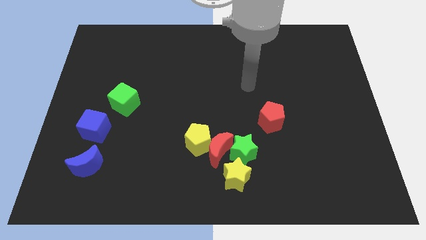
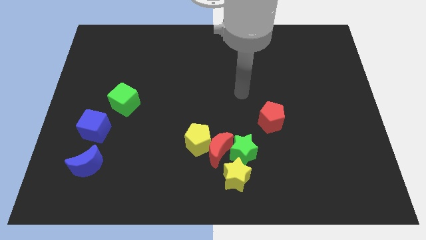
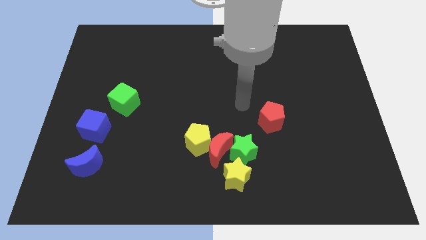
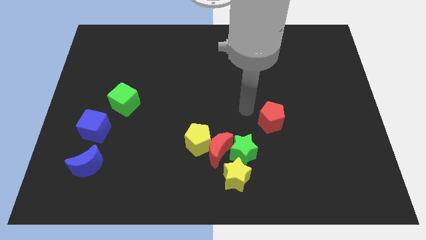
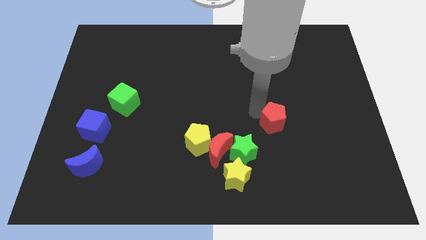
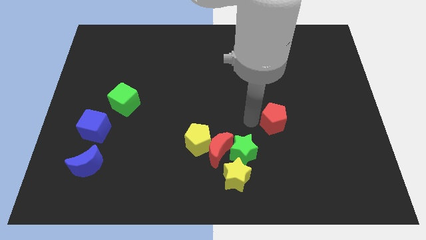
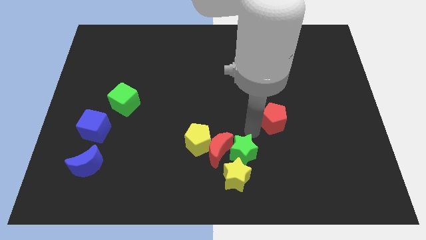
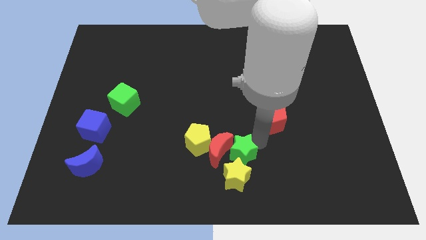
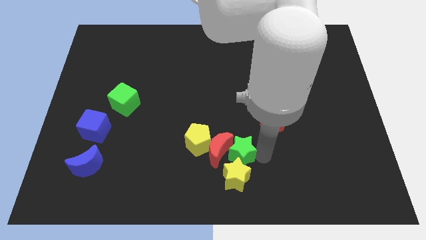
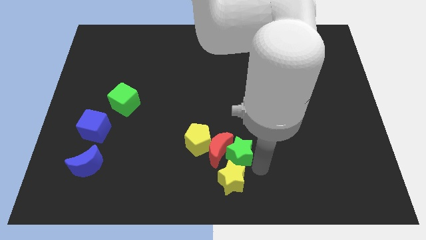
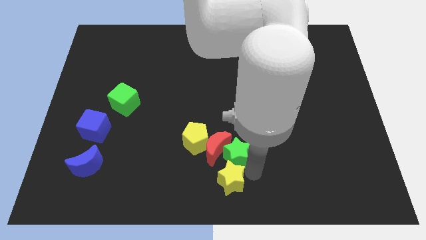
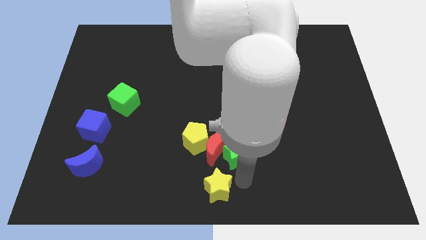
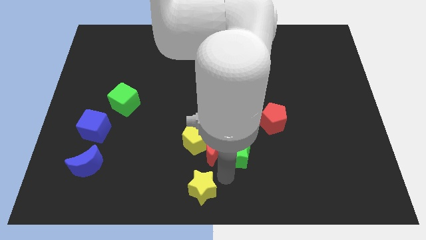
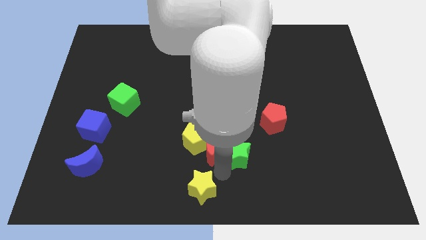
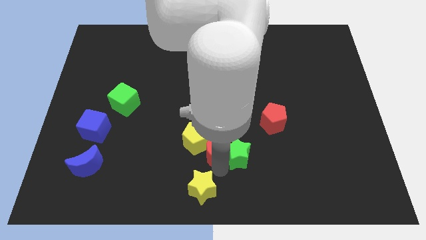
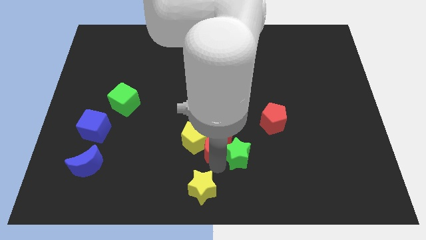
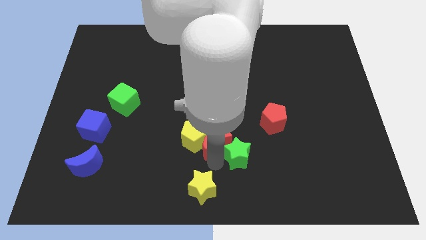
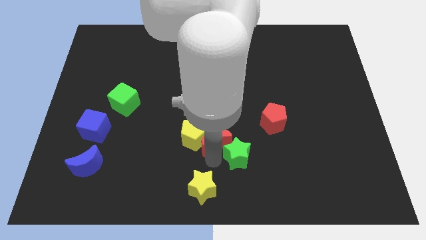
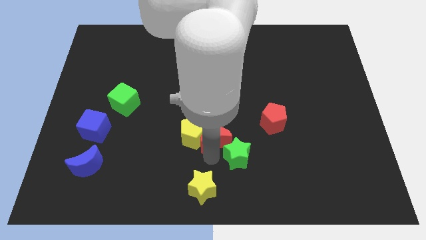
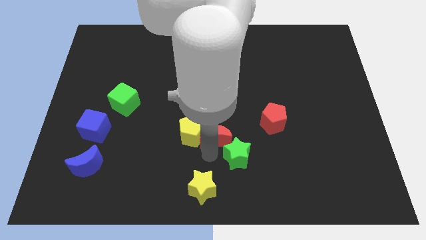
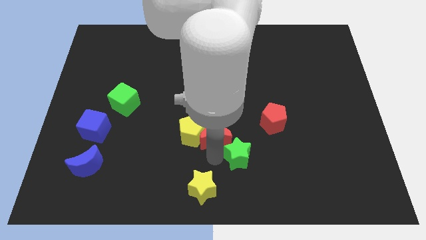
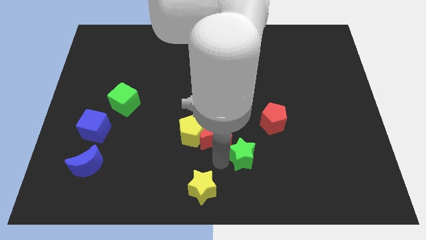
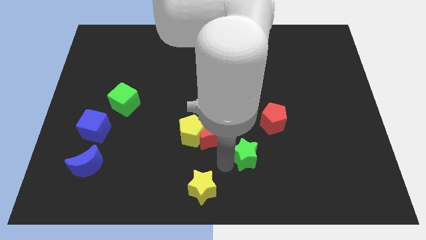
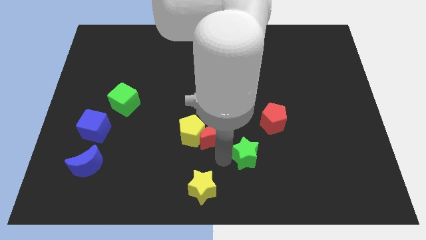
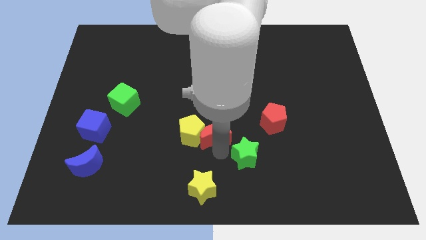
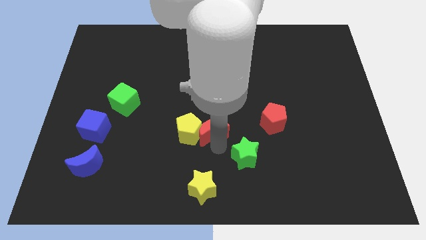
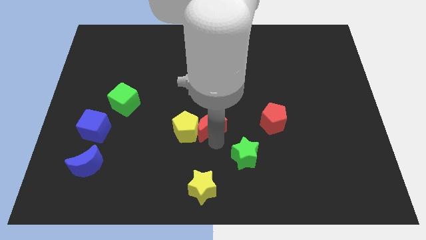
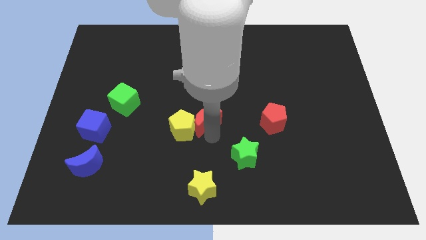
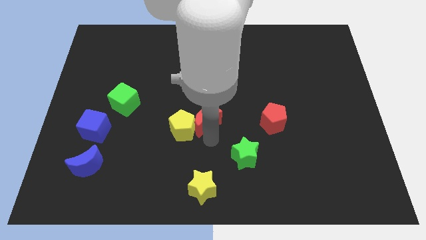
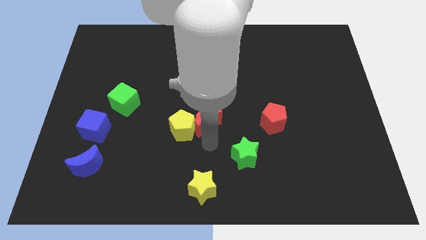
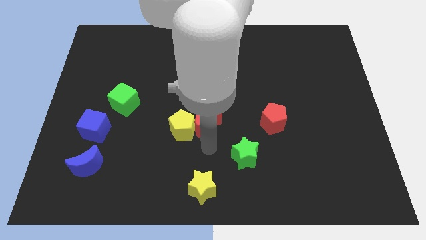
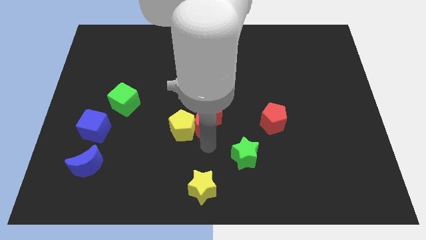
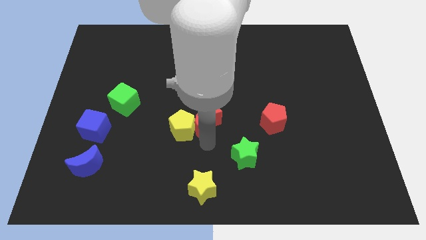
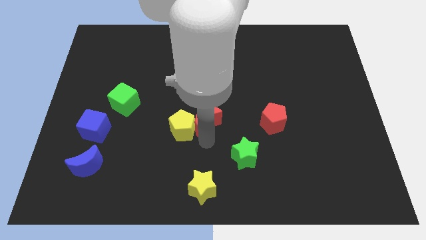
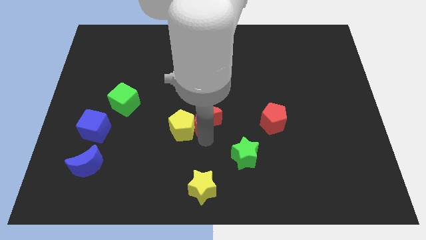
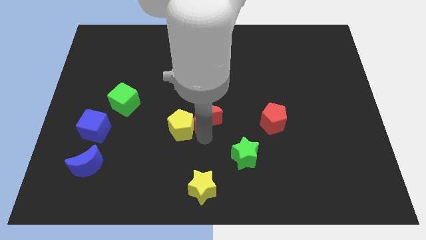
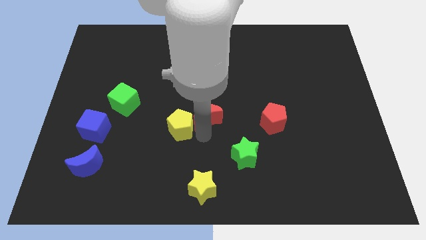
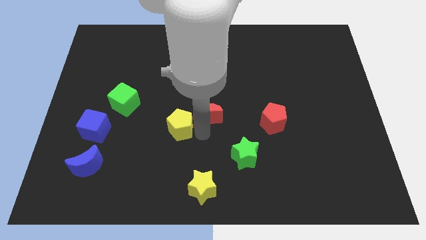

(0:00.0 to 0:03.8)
separate the red moon from the yellow pentagon, green star, and yellow star

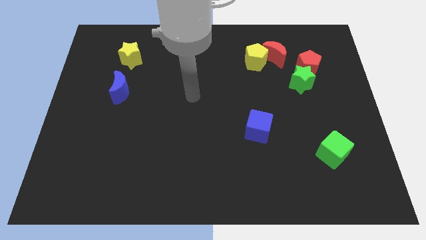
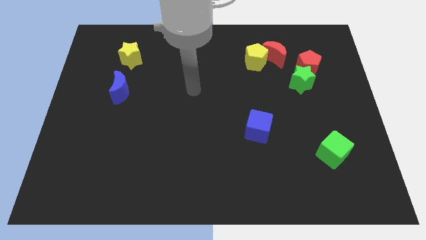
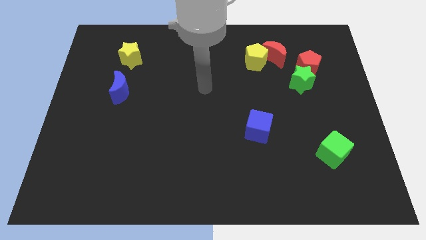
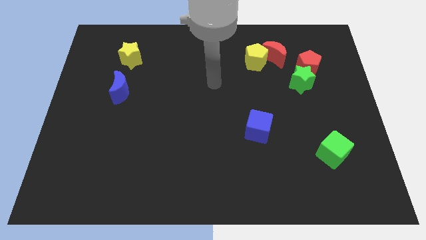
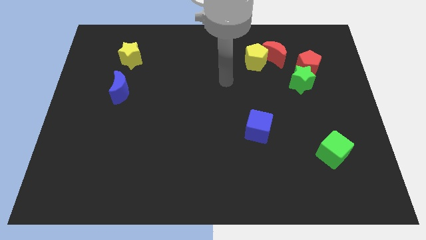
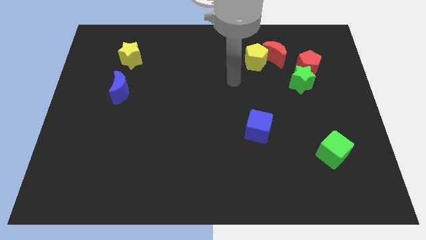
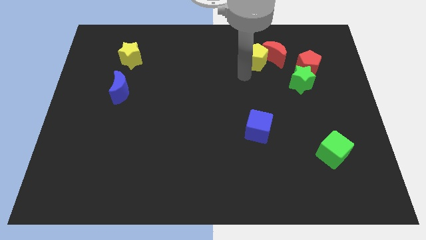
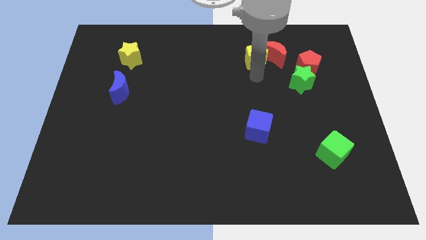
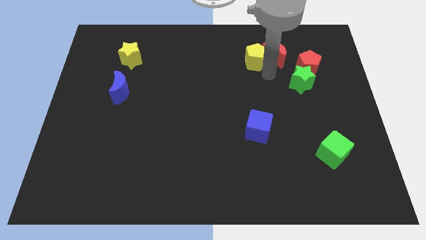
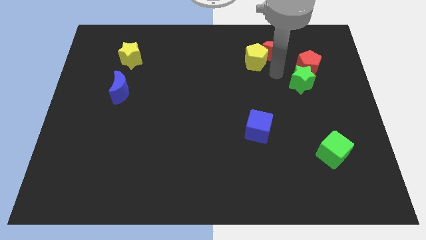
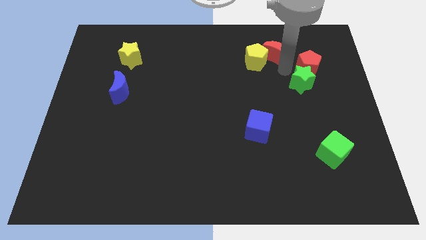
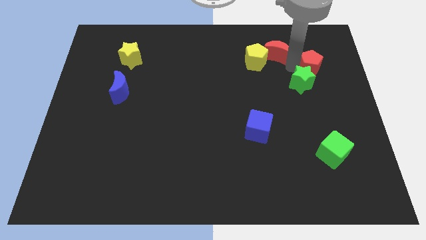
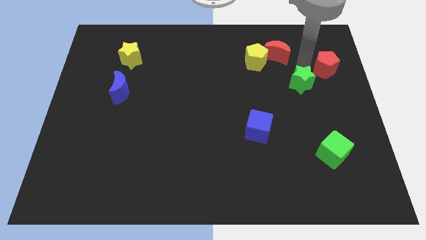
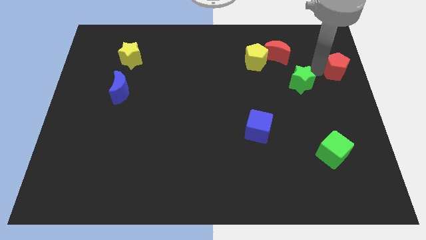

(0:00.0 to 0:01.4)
pull the green star apart from the red pentagon

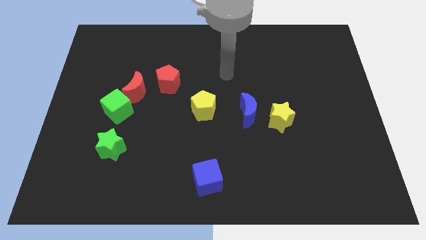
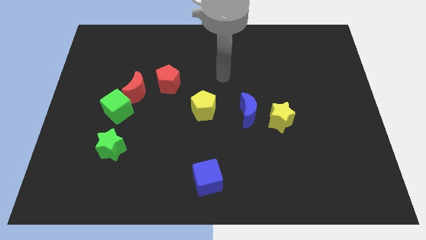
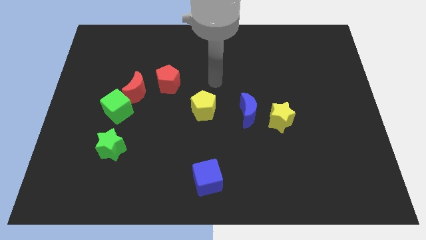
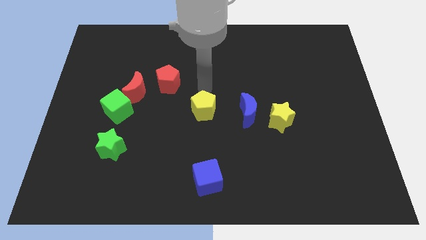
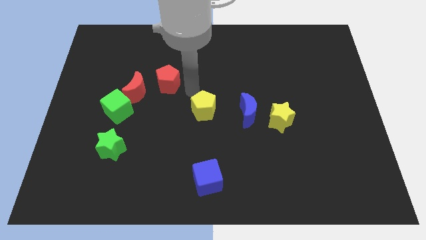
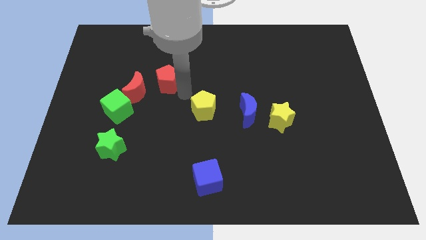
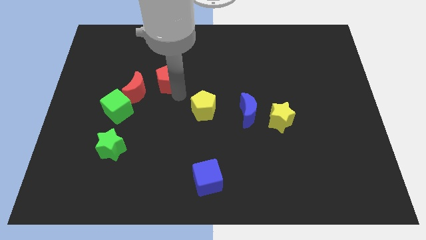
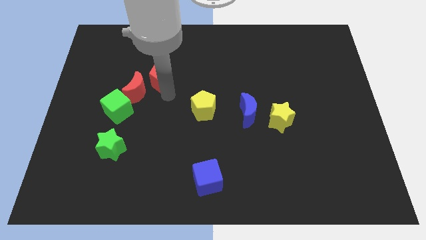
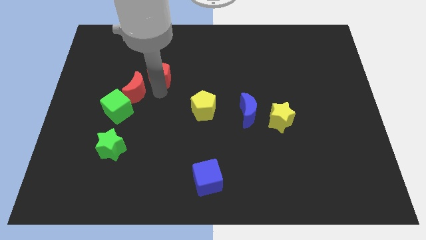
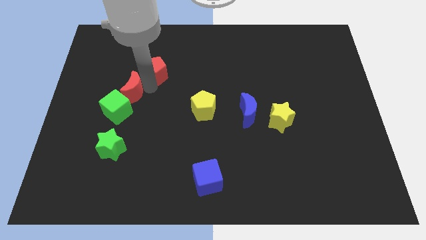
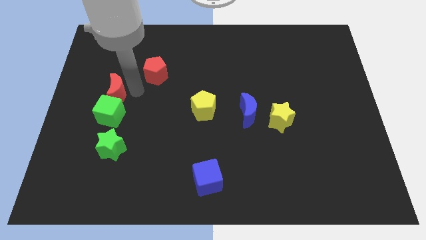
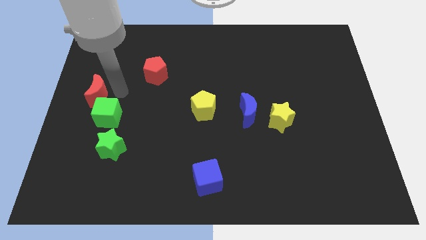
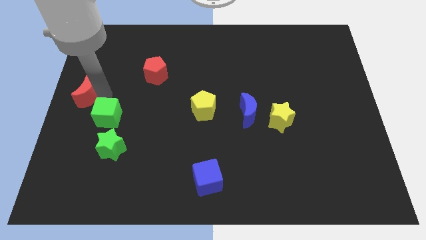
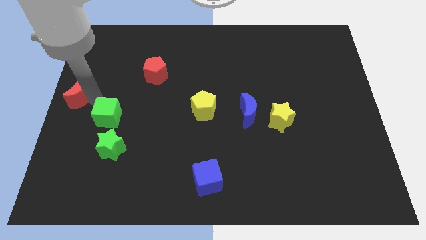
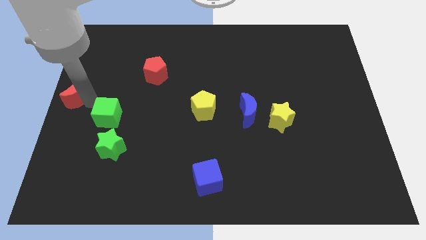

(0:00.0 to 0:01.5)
pull the green cube apart from the red moon

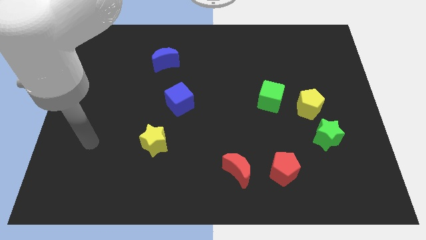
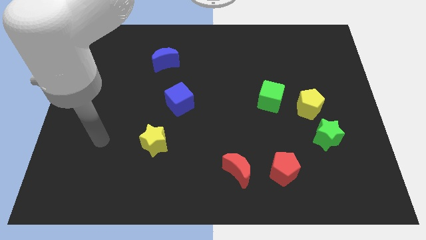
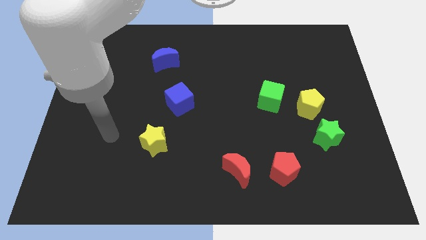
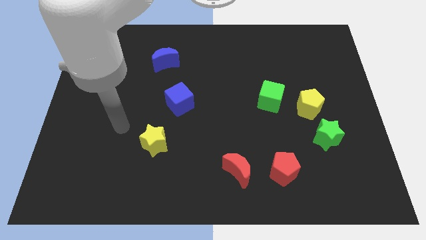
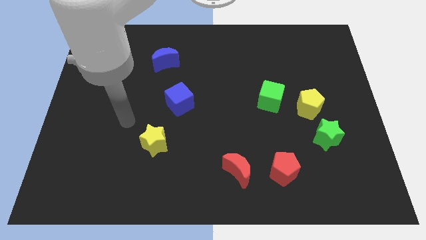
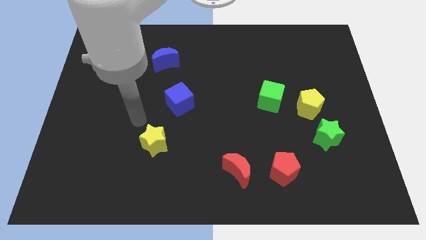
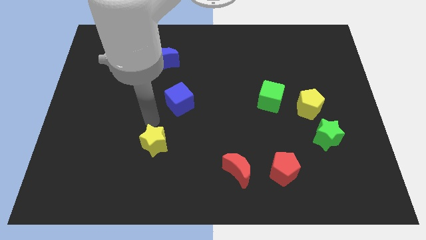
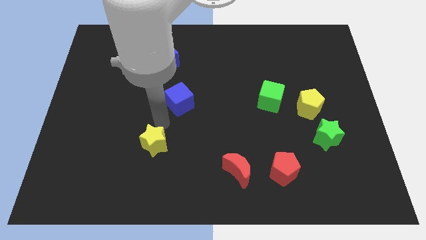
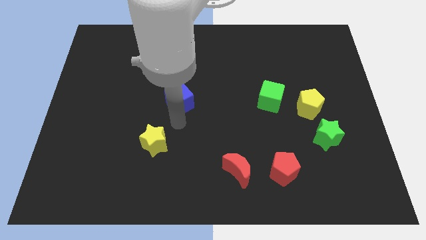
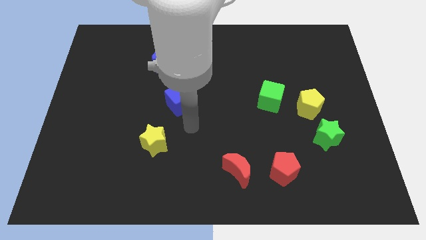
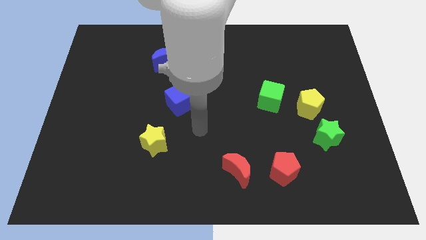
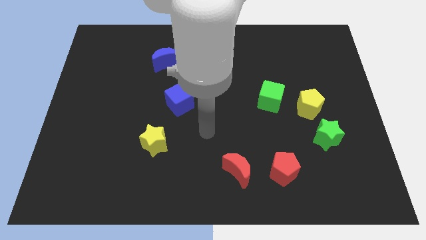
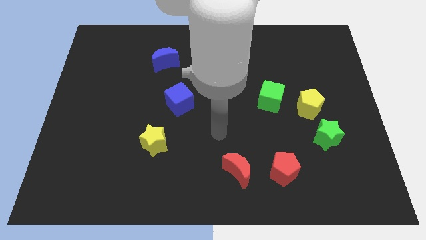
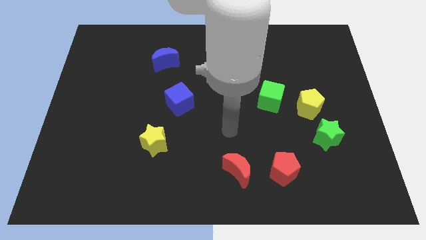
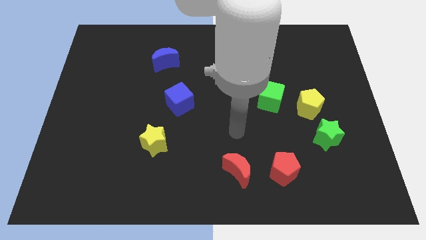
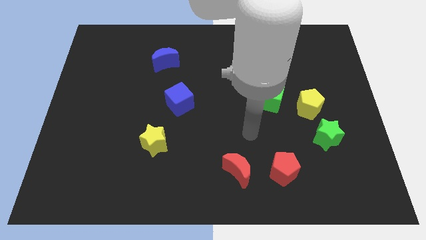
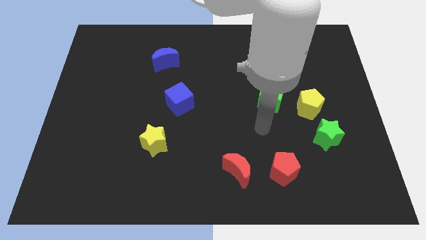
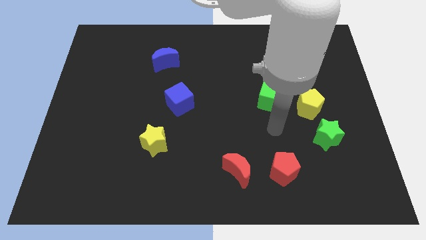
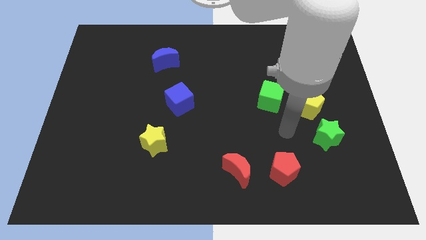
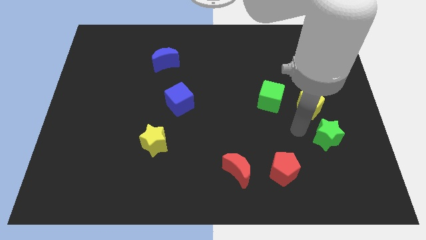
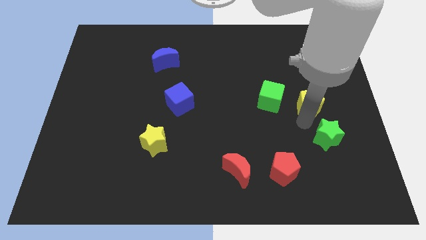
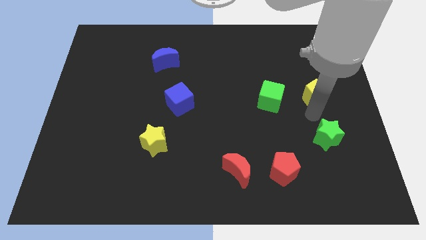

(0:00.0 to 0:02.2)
separate the green star from the yellow pentagon

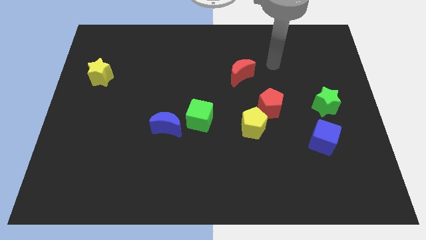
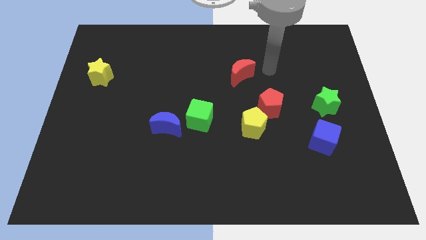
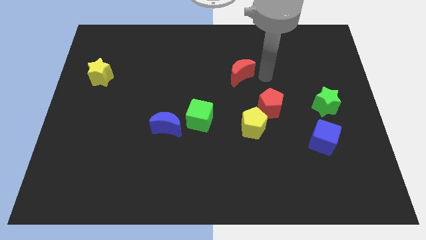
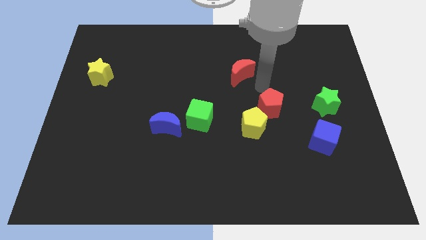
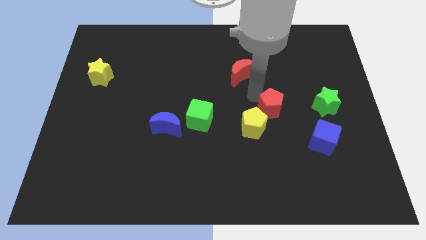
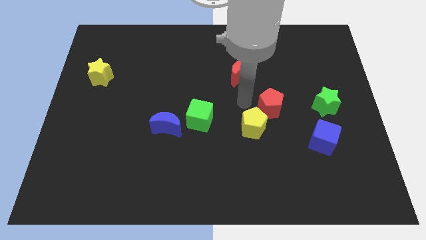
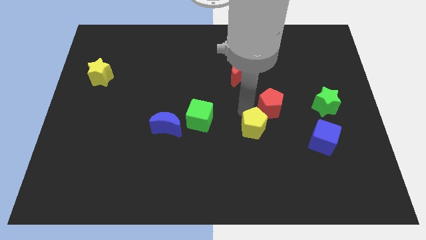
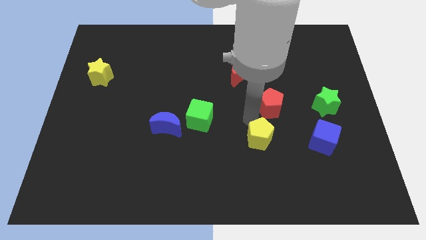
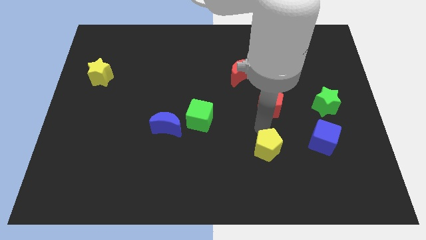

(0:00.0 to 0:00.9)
move the red pentagon away from the yellow pentagon
